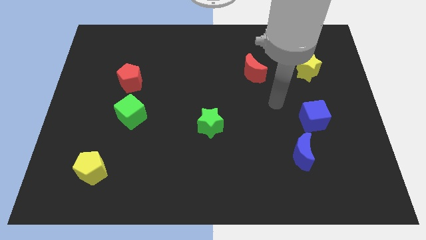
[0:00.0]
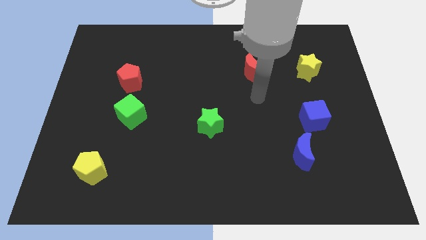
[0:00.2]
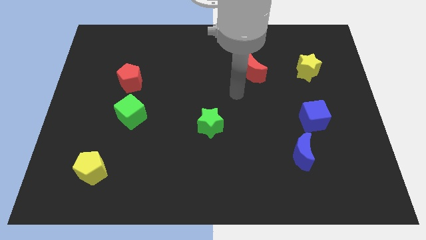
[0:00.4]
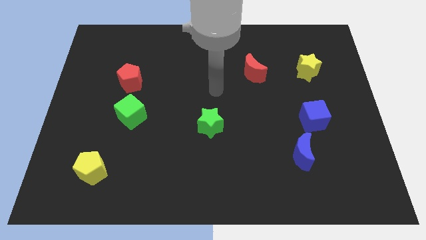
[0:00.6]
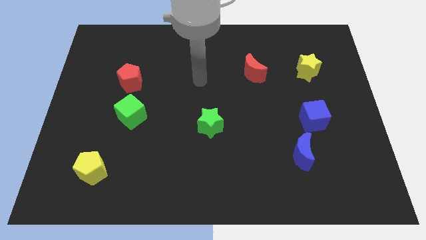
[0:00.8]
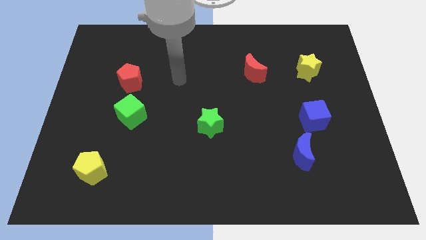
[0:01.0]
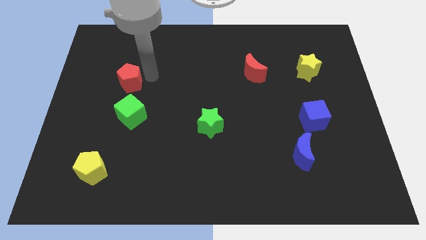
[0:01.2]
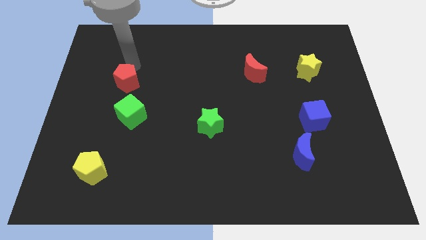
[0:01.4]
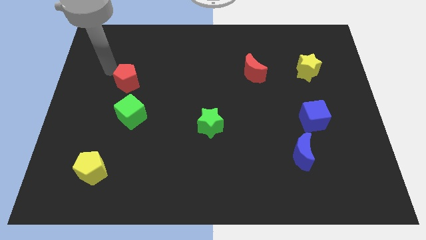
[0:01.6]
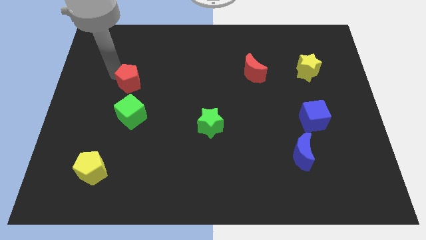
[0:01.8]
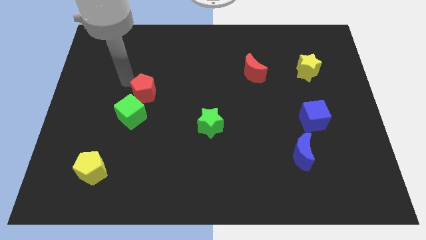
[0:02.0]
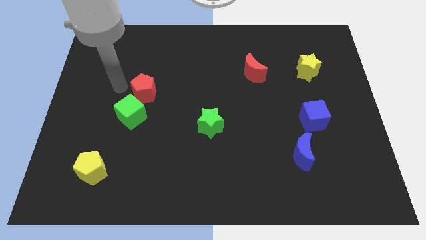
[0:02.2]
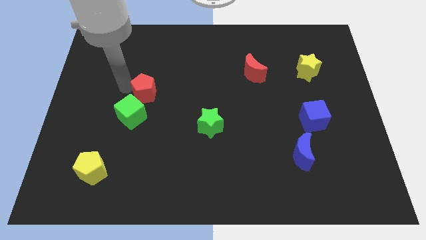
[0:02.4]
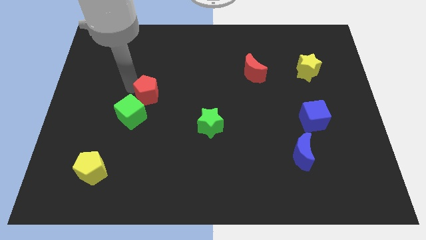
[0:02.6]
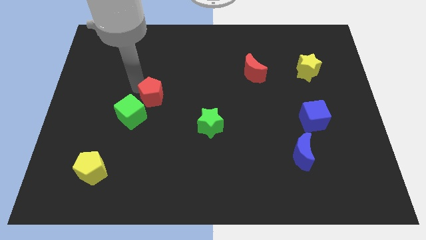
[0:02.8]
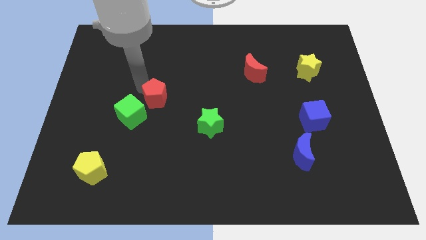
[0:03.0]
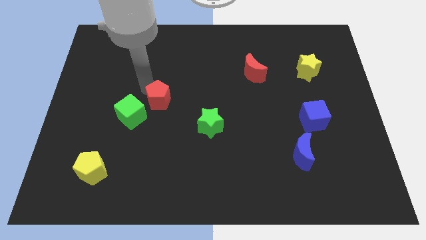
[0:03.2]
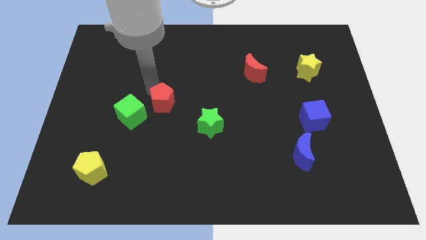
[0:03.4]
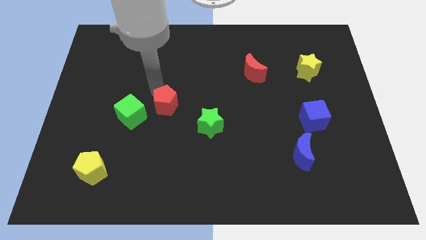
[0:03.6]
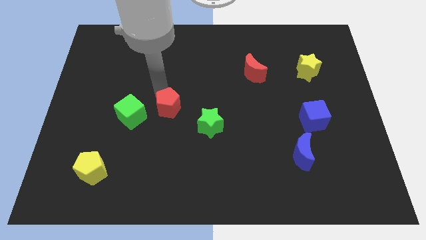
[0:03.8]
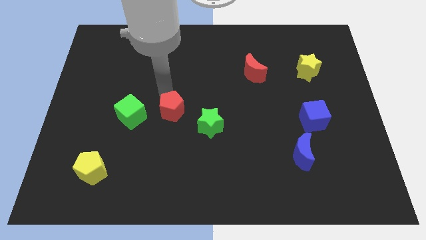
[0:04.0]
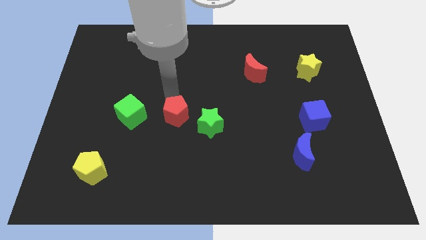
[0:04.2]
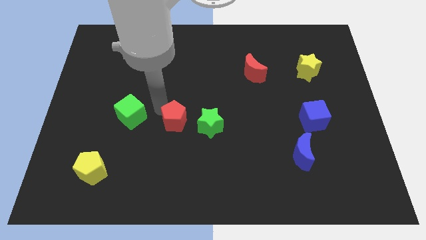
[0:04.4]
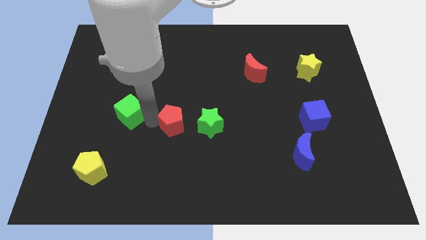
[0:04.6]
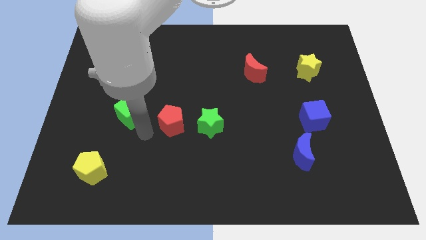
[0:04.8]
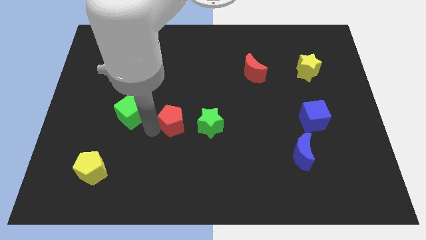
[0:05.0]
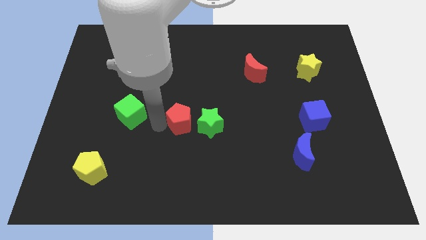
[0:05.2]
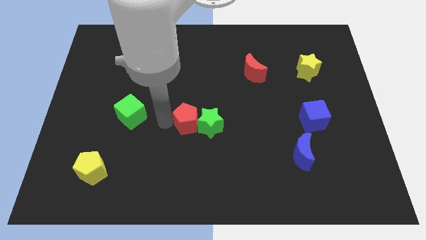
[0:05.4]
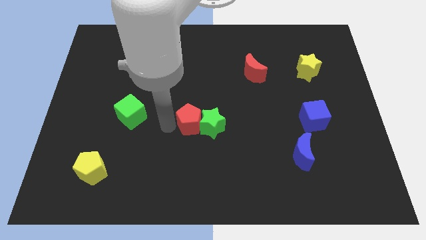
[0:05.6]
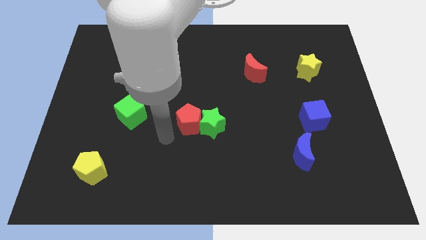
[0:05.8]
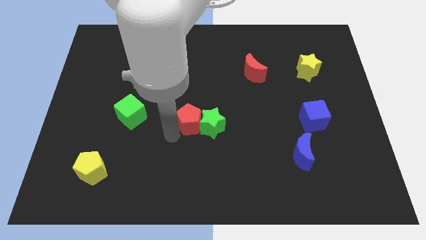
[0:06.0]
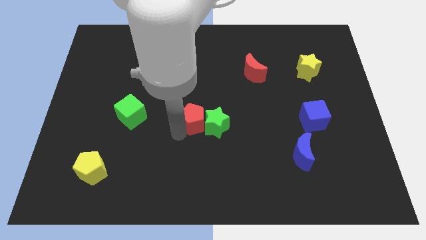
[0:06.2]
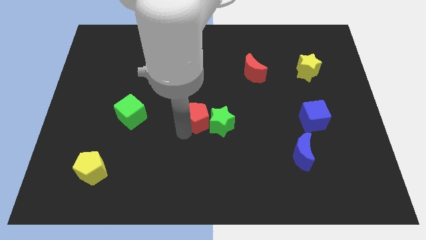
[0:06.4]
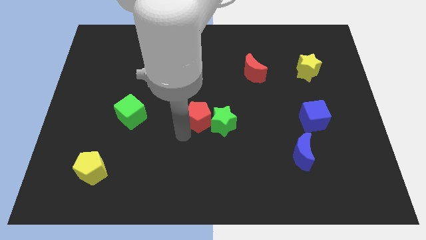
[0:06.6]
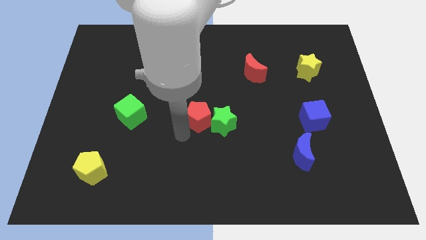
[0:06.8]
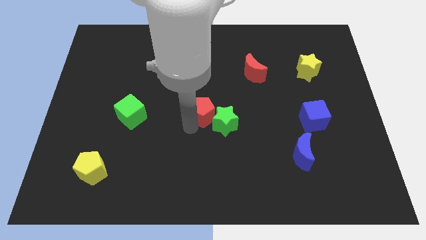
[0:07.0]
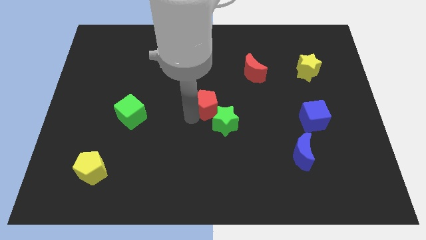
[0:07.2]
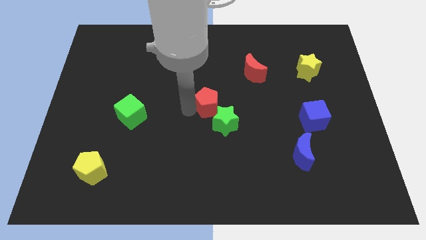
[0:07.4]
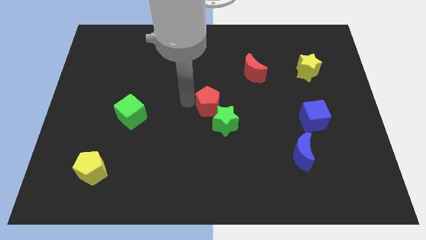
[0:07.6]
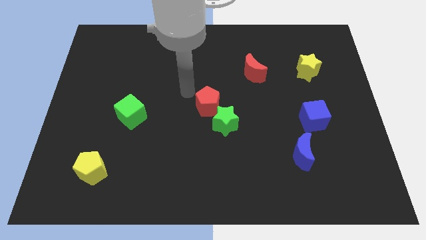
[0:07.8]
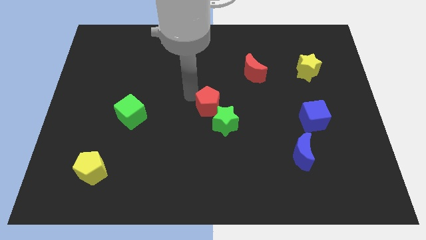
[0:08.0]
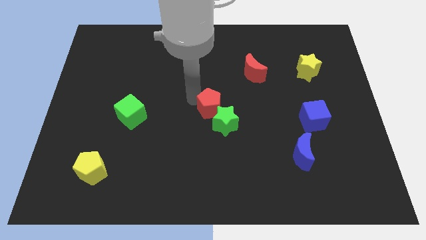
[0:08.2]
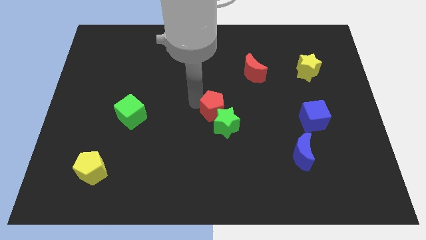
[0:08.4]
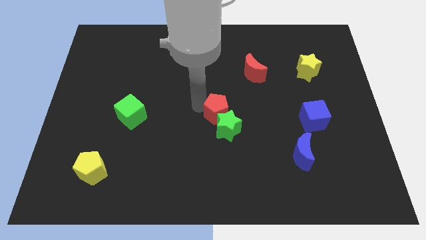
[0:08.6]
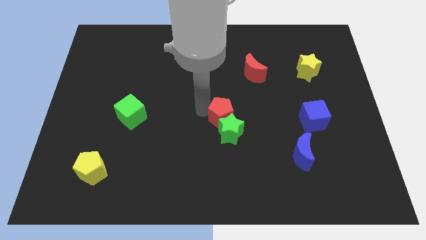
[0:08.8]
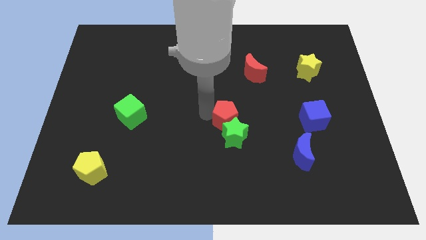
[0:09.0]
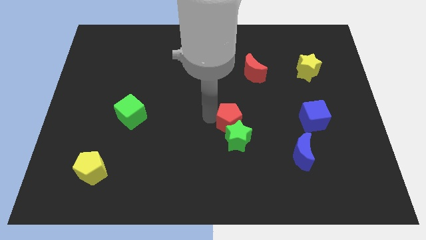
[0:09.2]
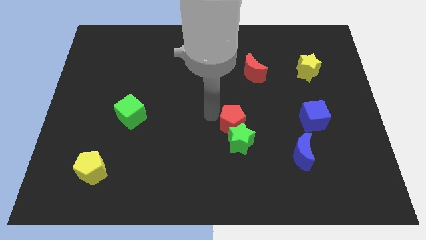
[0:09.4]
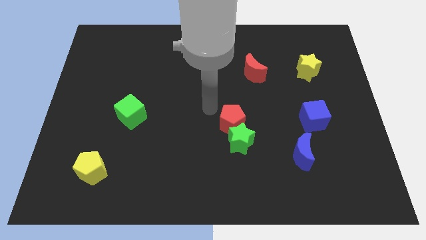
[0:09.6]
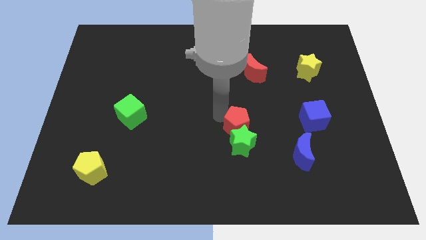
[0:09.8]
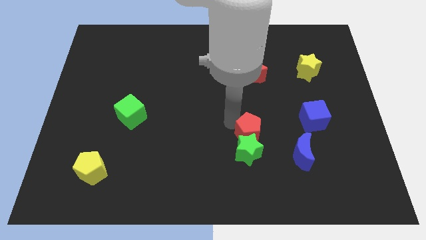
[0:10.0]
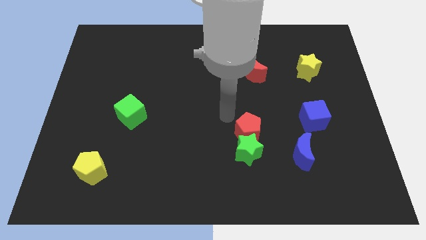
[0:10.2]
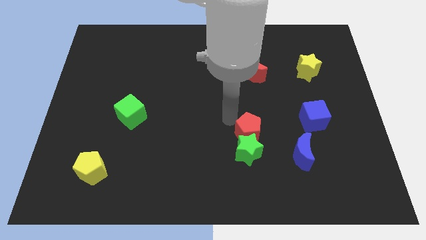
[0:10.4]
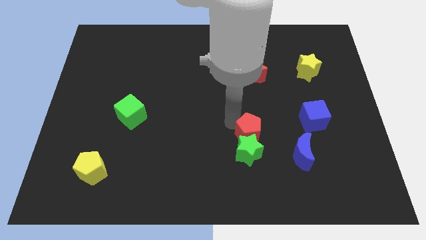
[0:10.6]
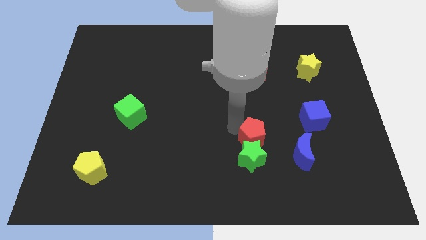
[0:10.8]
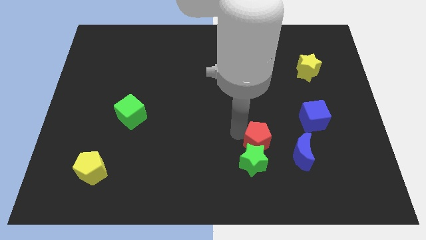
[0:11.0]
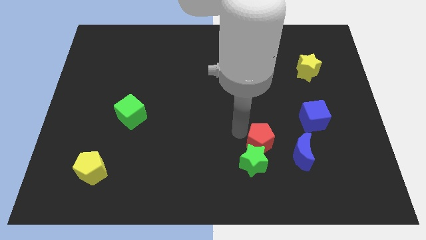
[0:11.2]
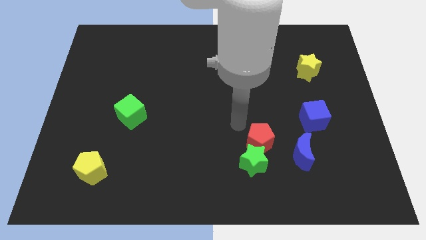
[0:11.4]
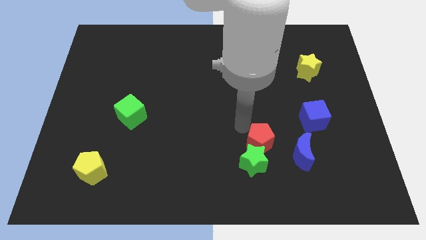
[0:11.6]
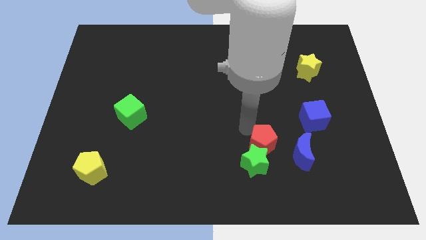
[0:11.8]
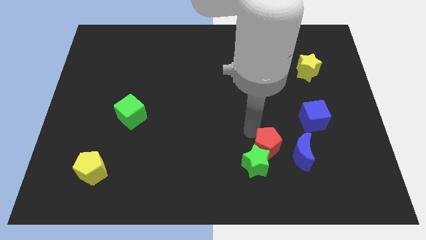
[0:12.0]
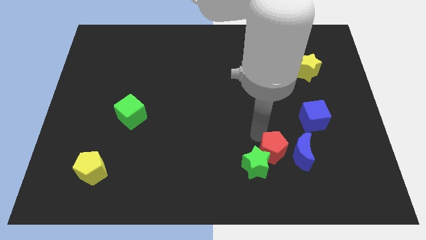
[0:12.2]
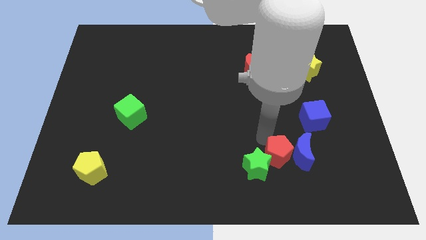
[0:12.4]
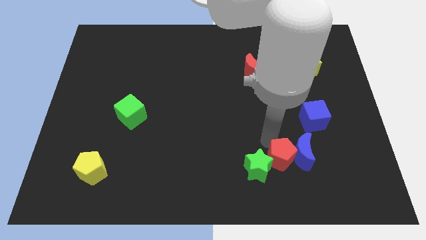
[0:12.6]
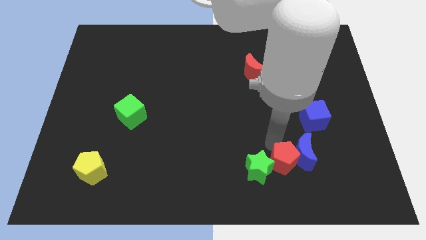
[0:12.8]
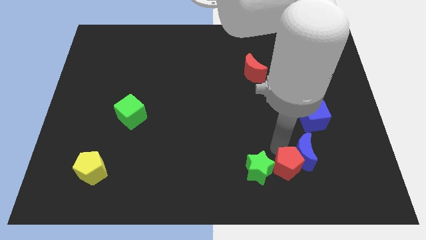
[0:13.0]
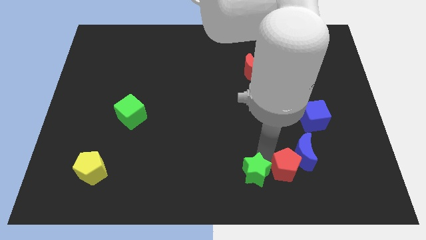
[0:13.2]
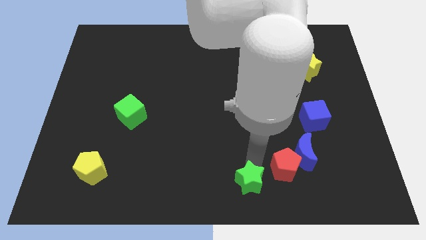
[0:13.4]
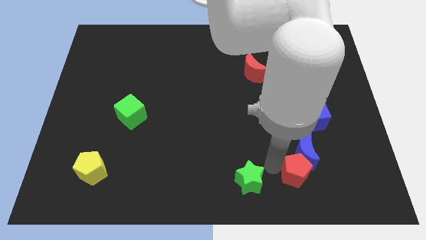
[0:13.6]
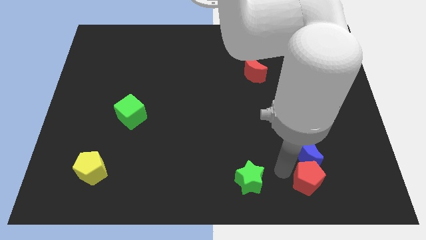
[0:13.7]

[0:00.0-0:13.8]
put the red pentagon to the bottom right of the blue moon

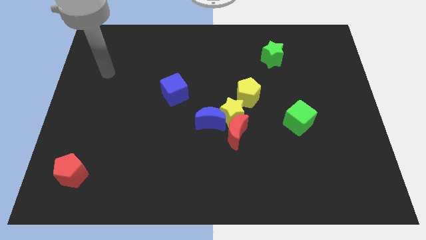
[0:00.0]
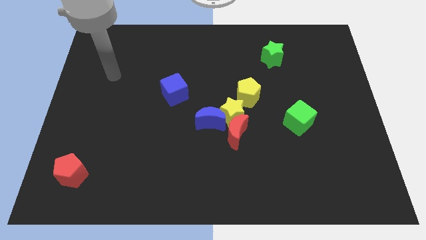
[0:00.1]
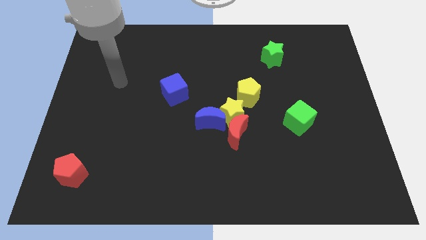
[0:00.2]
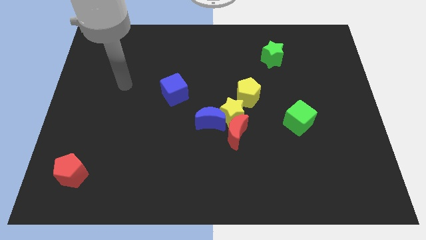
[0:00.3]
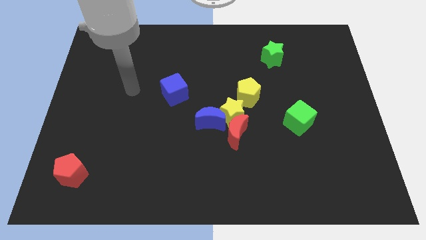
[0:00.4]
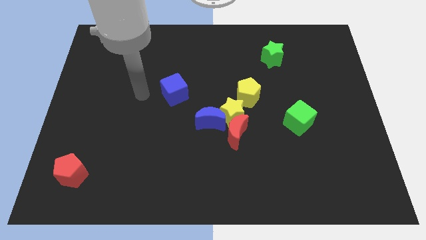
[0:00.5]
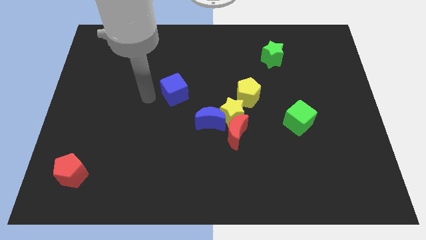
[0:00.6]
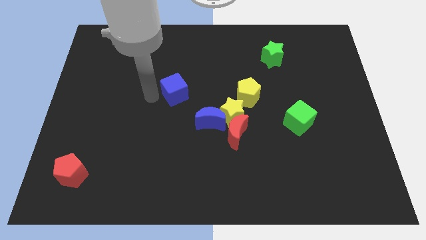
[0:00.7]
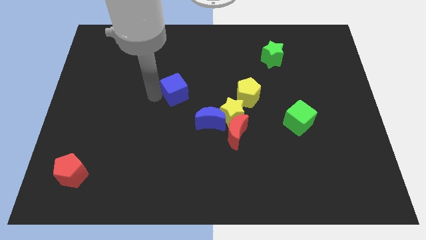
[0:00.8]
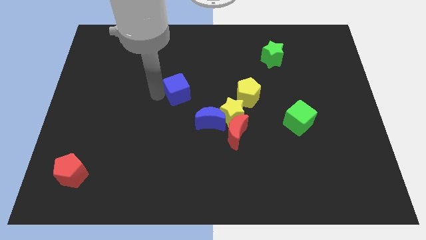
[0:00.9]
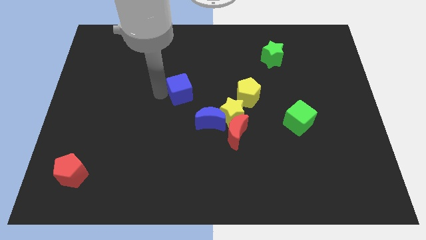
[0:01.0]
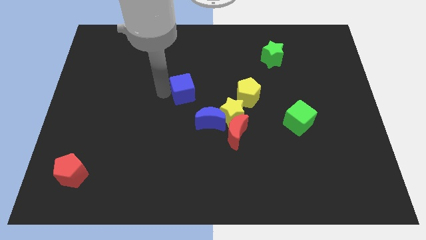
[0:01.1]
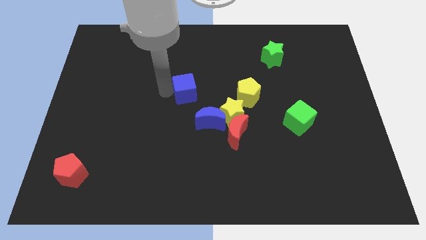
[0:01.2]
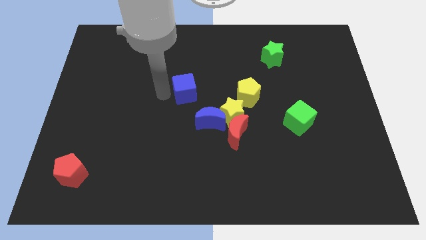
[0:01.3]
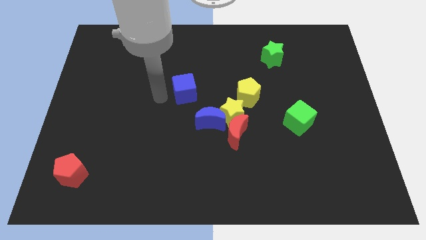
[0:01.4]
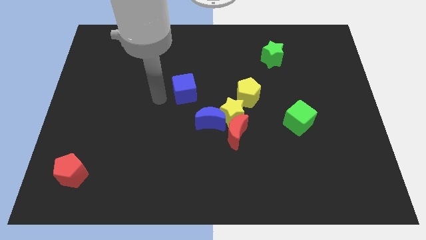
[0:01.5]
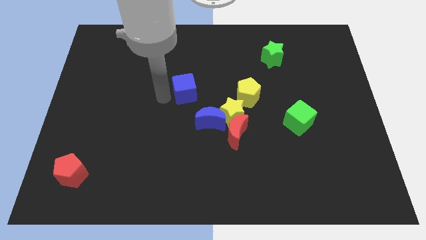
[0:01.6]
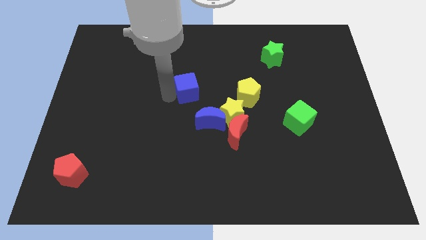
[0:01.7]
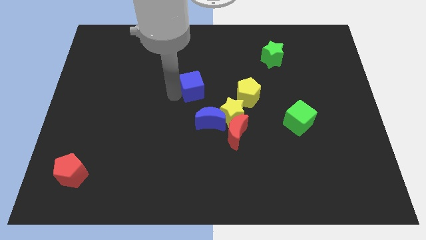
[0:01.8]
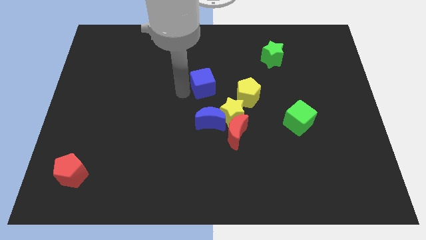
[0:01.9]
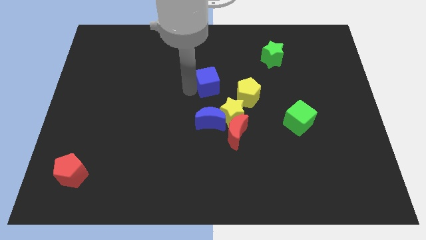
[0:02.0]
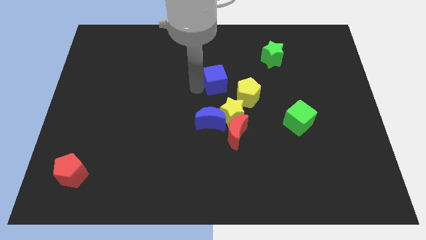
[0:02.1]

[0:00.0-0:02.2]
slide the blue cube above the yellow star
